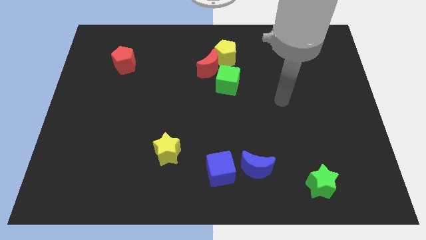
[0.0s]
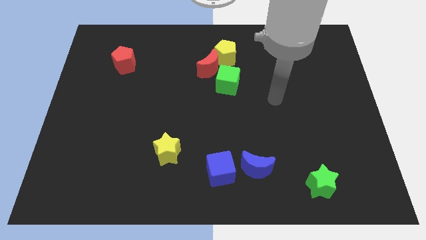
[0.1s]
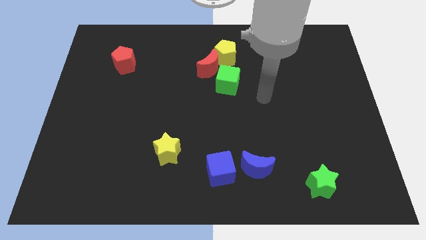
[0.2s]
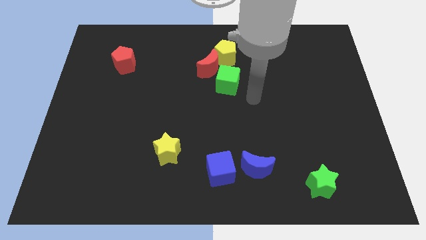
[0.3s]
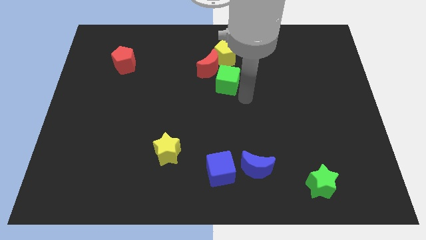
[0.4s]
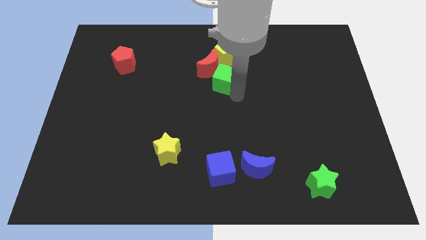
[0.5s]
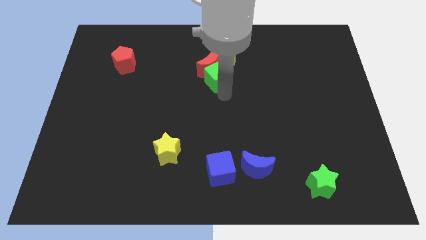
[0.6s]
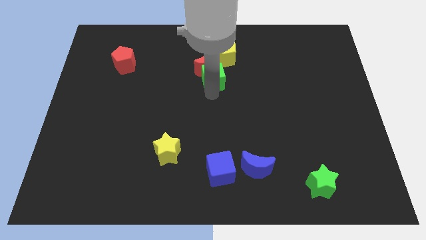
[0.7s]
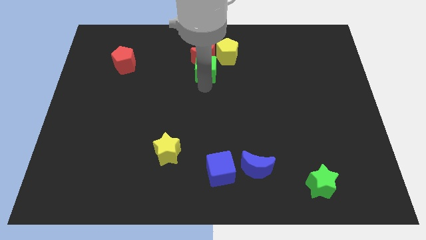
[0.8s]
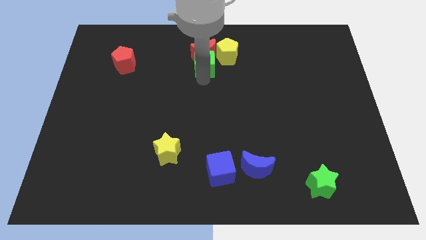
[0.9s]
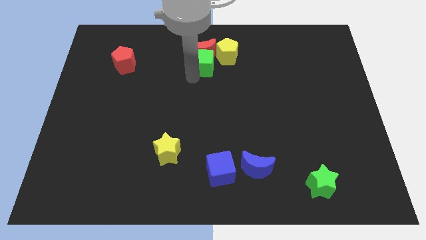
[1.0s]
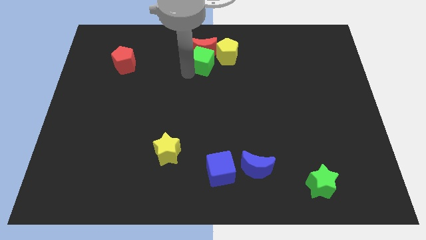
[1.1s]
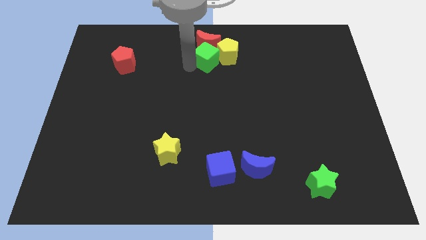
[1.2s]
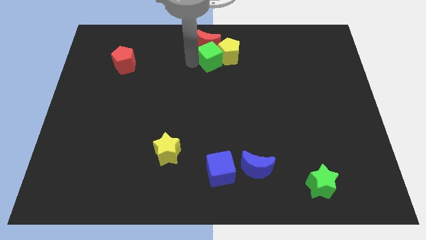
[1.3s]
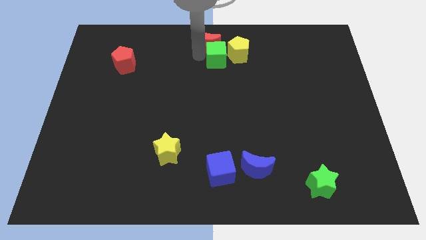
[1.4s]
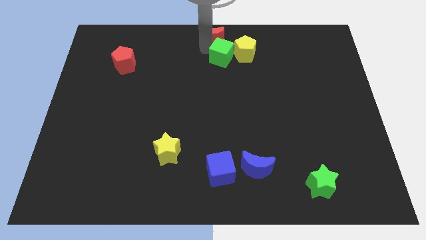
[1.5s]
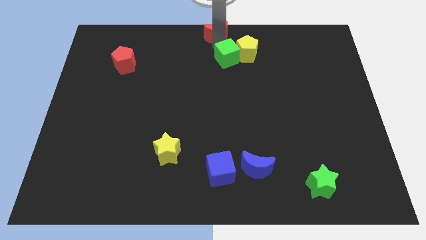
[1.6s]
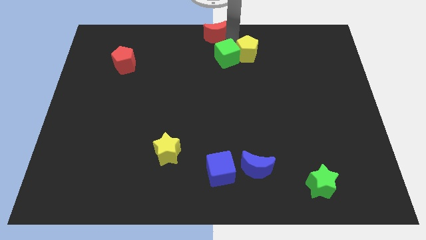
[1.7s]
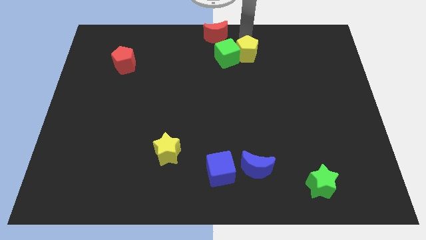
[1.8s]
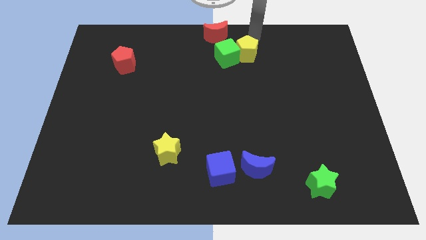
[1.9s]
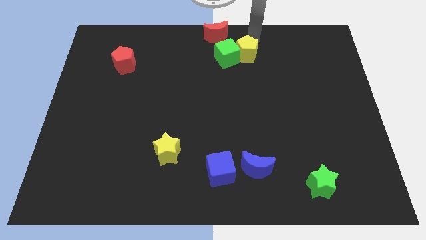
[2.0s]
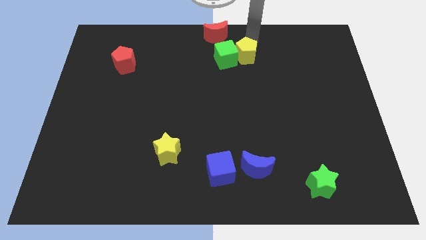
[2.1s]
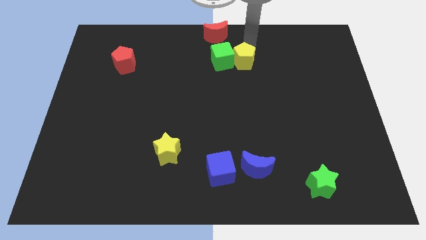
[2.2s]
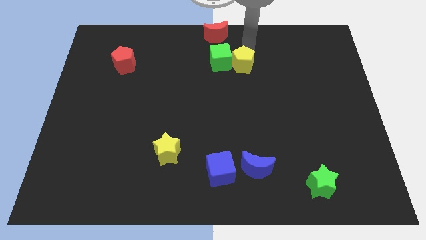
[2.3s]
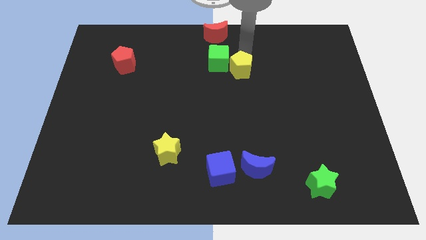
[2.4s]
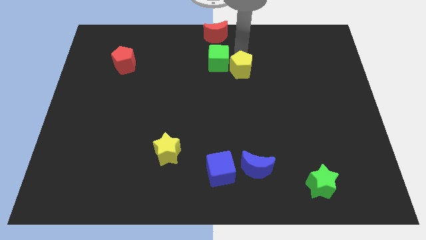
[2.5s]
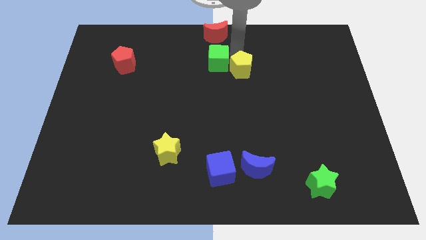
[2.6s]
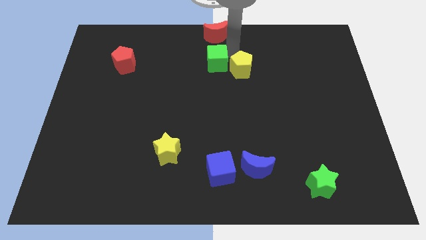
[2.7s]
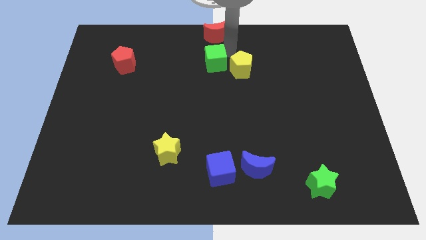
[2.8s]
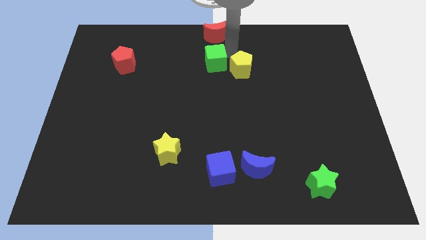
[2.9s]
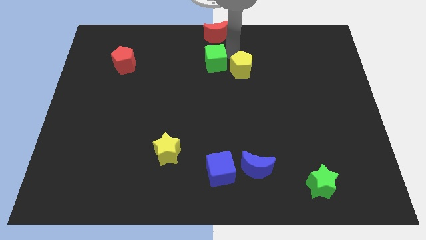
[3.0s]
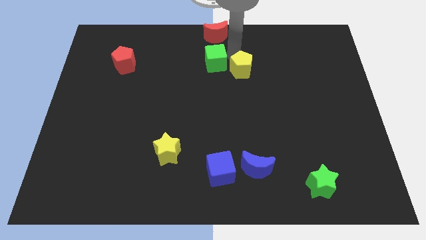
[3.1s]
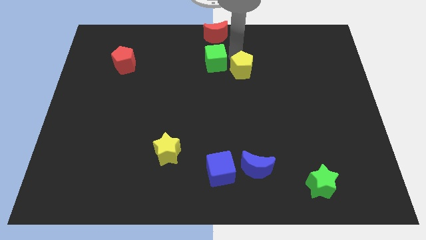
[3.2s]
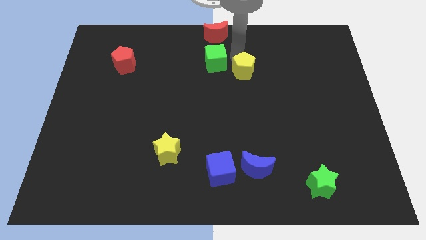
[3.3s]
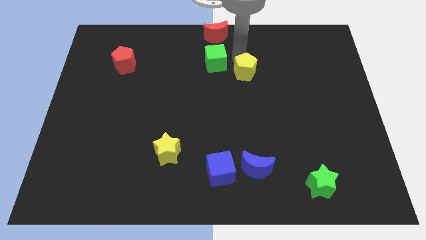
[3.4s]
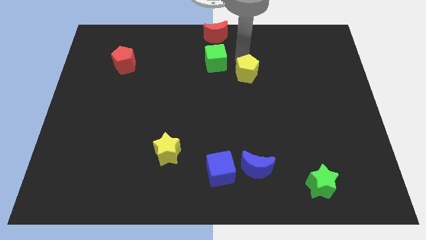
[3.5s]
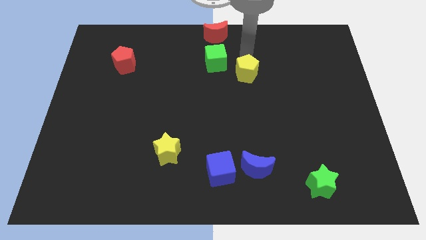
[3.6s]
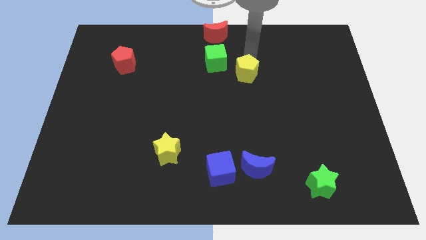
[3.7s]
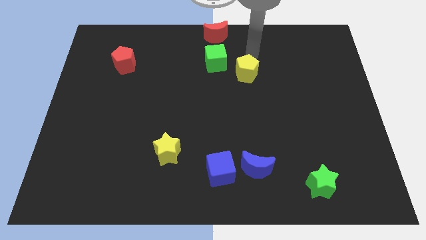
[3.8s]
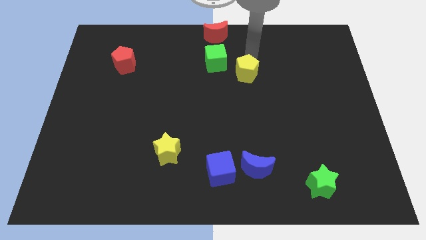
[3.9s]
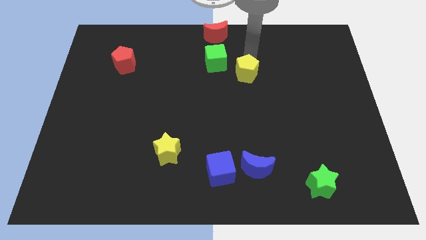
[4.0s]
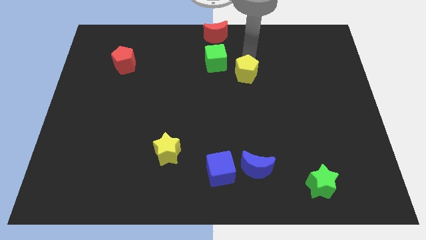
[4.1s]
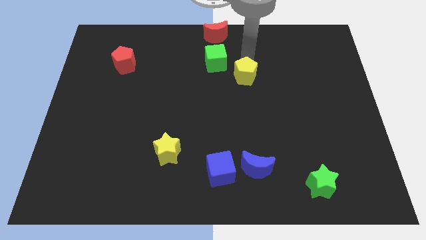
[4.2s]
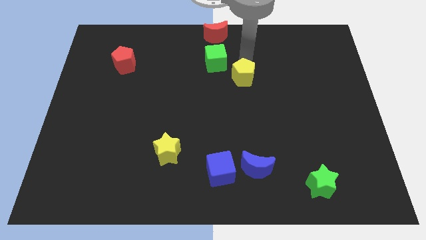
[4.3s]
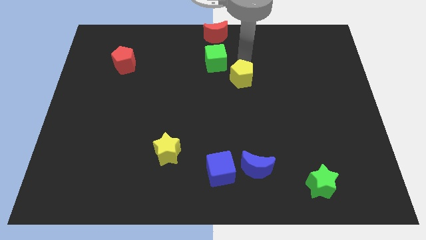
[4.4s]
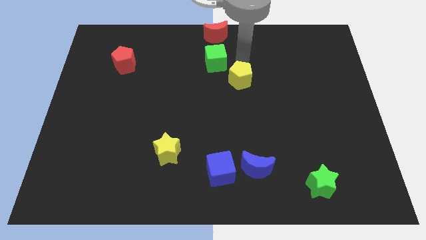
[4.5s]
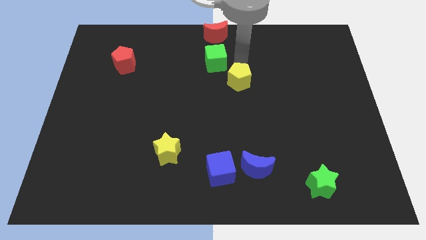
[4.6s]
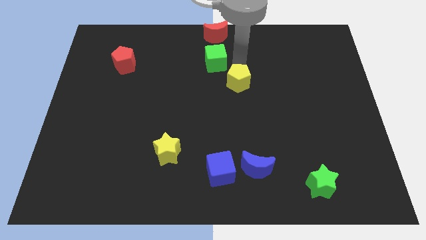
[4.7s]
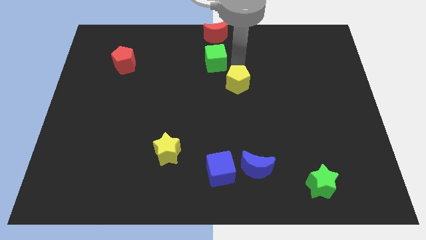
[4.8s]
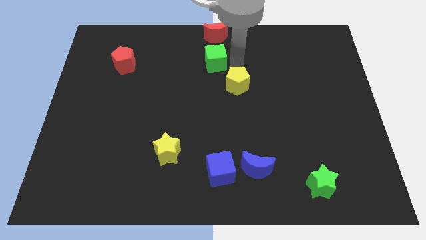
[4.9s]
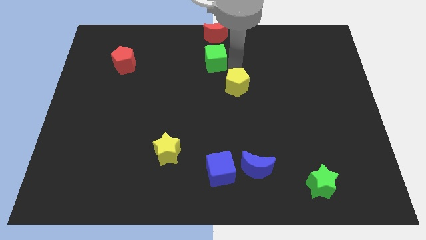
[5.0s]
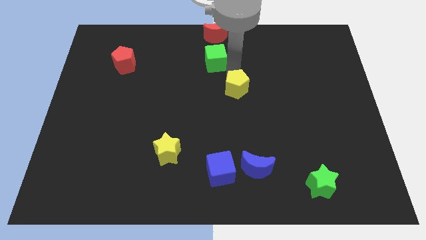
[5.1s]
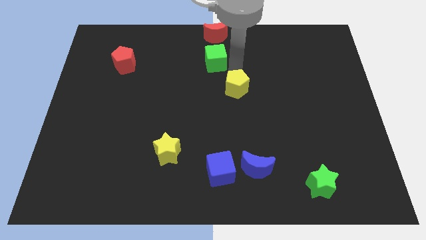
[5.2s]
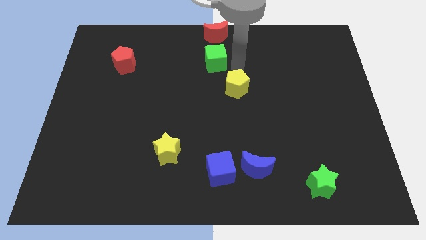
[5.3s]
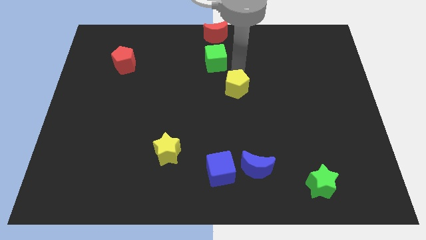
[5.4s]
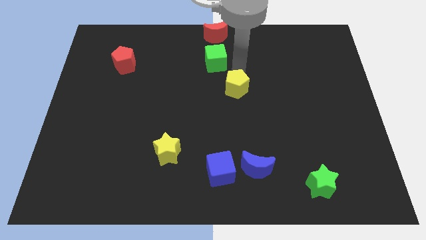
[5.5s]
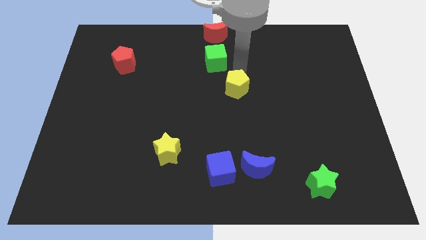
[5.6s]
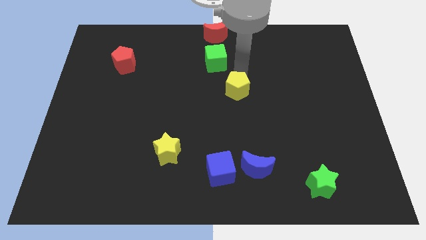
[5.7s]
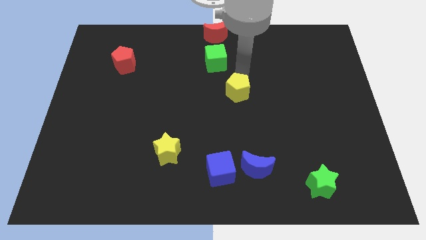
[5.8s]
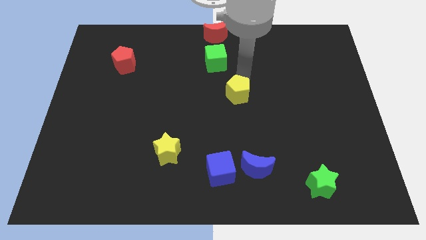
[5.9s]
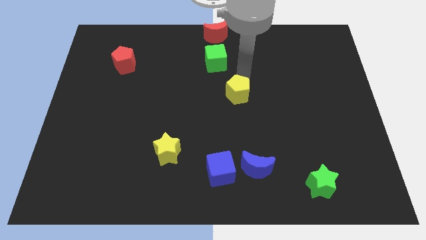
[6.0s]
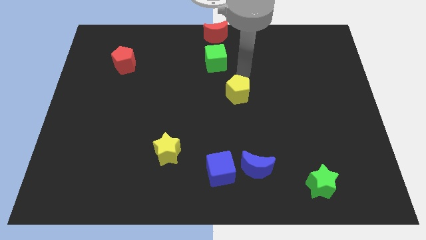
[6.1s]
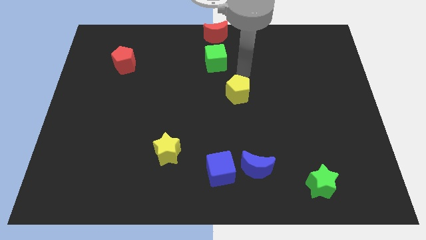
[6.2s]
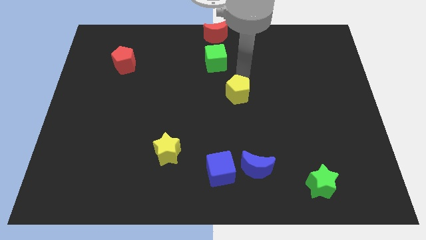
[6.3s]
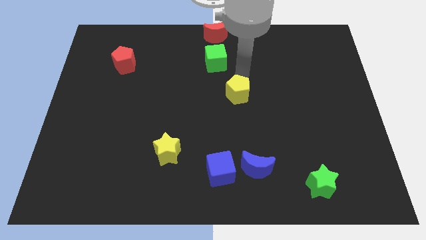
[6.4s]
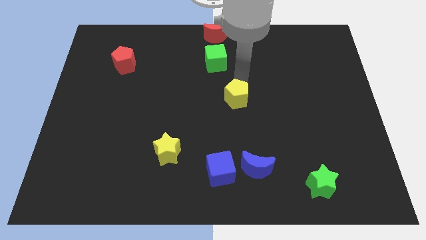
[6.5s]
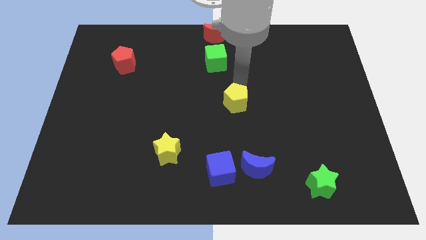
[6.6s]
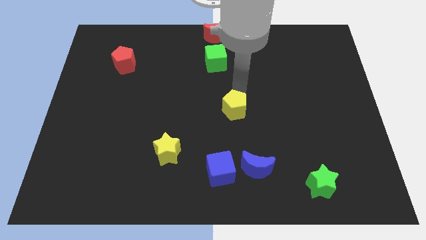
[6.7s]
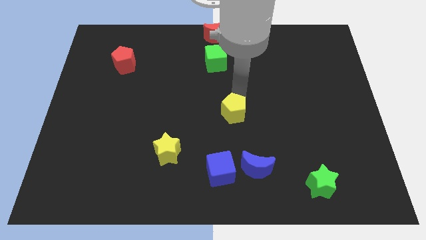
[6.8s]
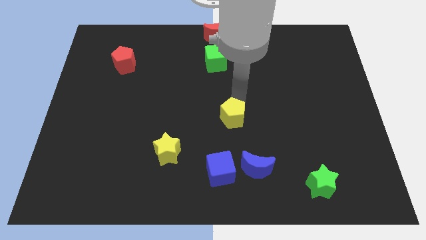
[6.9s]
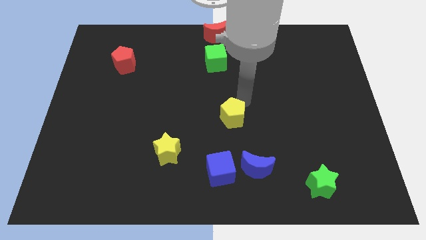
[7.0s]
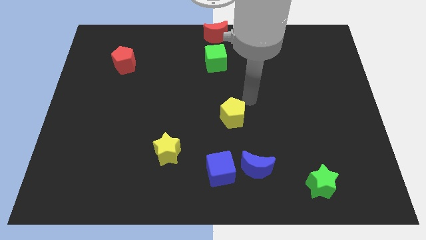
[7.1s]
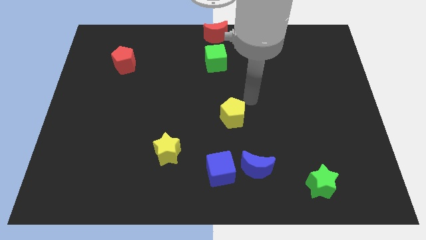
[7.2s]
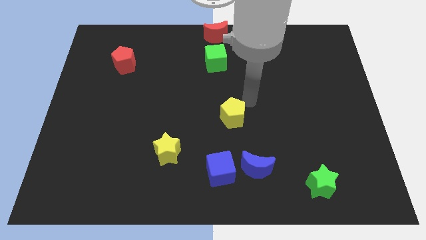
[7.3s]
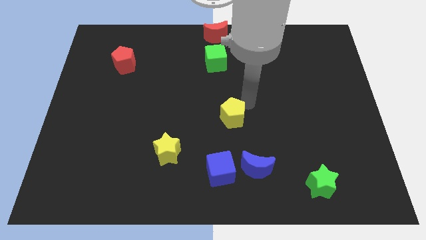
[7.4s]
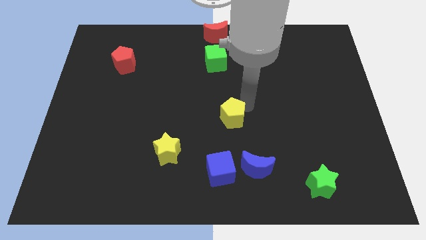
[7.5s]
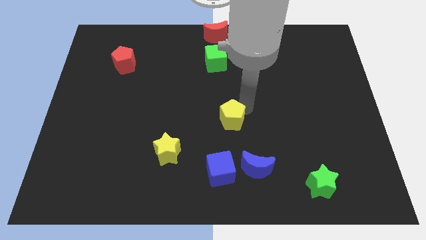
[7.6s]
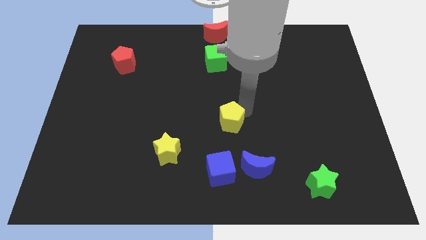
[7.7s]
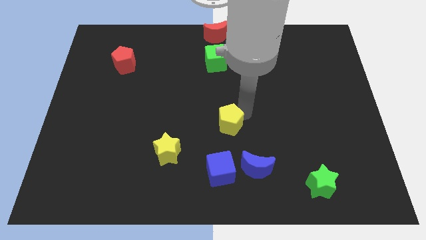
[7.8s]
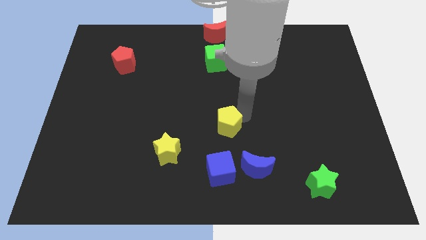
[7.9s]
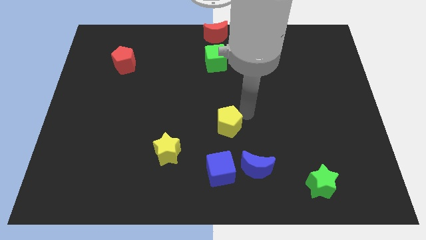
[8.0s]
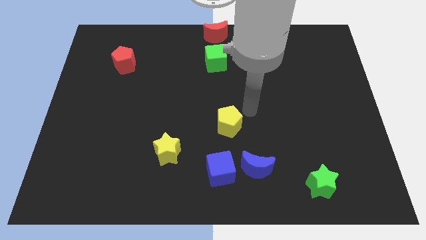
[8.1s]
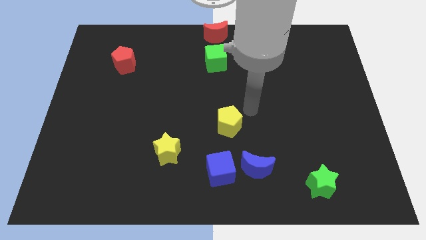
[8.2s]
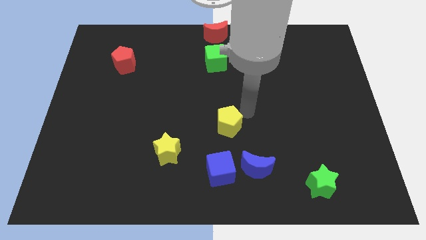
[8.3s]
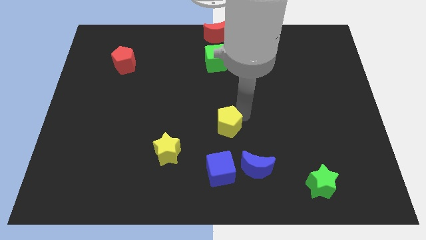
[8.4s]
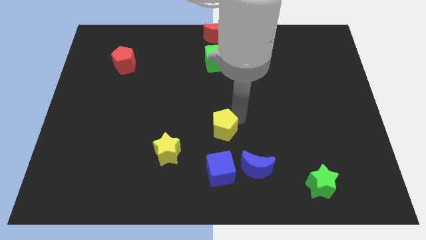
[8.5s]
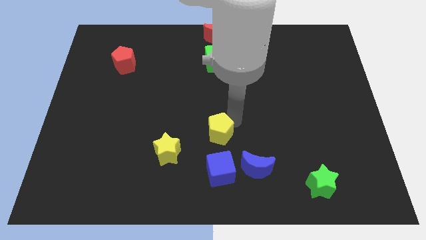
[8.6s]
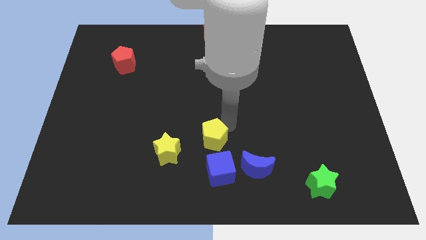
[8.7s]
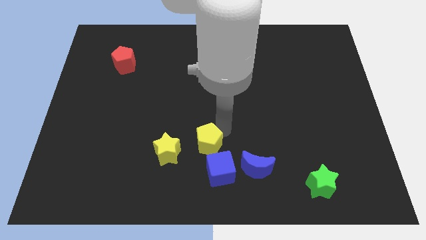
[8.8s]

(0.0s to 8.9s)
slide the yellow pentagon to the top left of the blue cube
